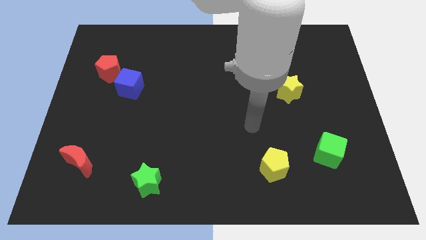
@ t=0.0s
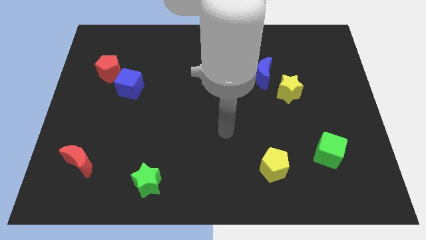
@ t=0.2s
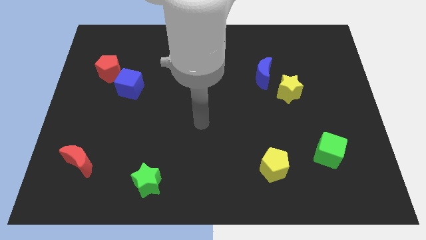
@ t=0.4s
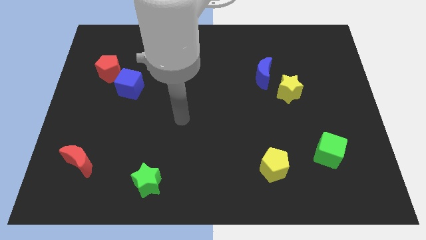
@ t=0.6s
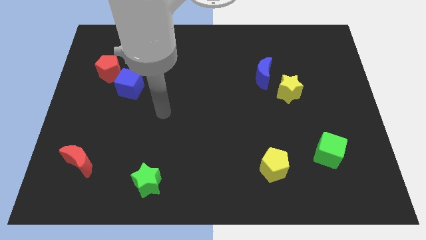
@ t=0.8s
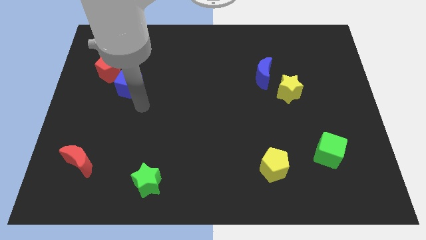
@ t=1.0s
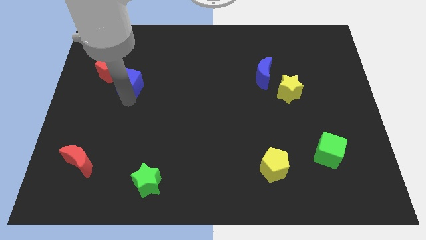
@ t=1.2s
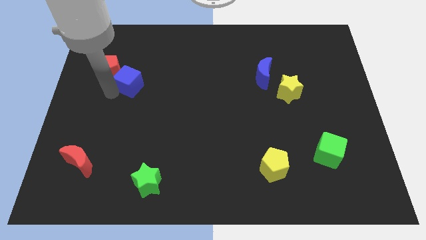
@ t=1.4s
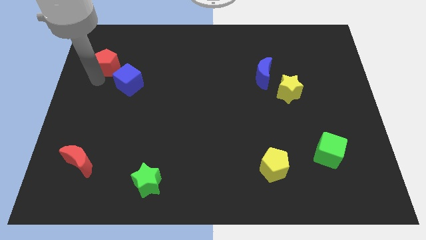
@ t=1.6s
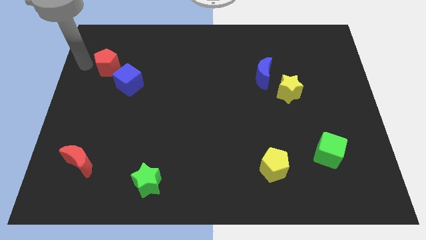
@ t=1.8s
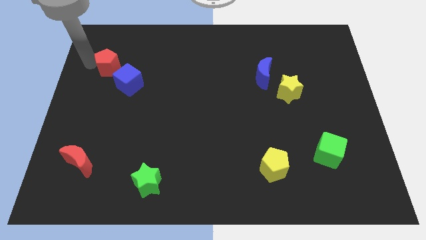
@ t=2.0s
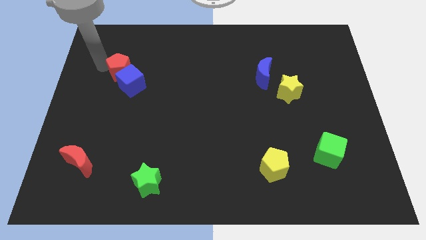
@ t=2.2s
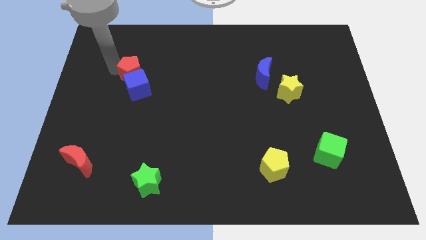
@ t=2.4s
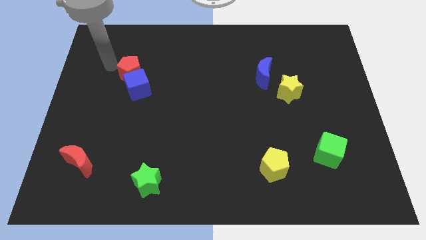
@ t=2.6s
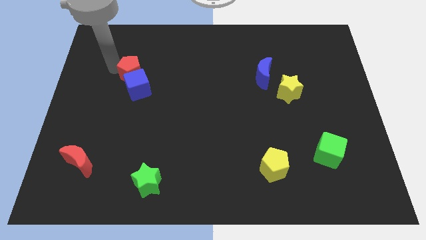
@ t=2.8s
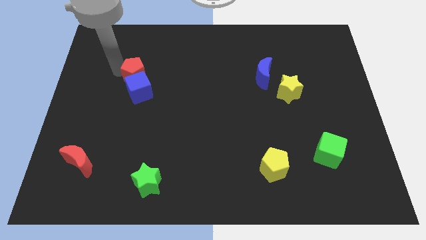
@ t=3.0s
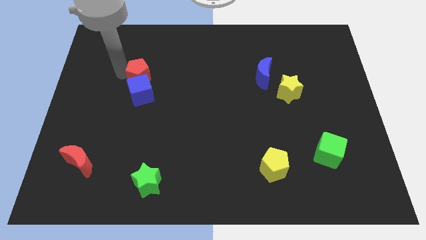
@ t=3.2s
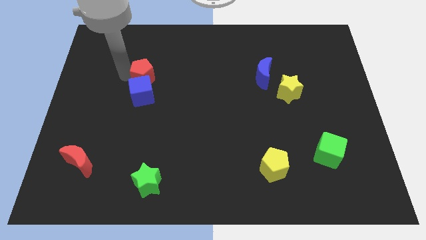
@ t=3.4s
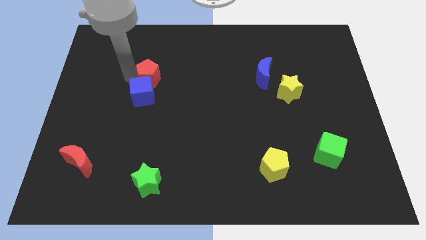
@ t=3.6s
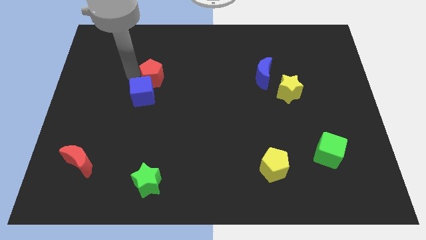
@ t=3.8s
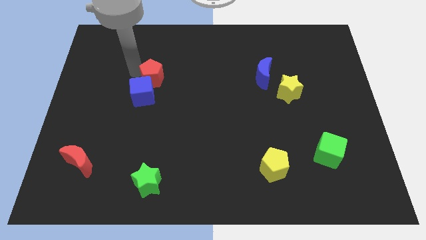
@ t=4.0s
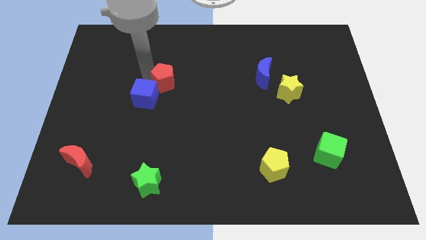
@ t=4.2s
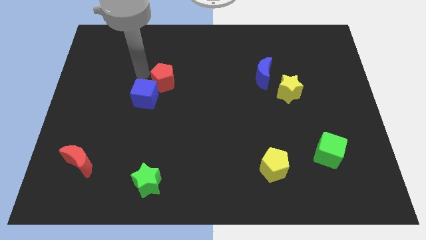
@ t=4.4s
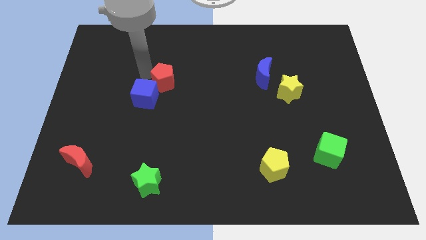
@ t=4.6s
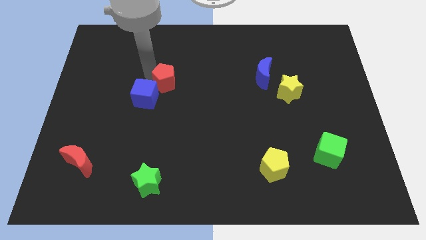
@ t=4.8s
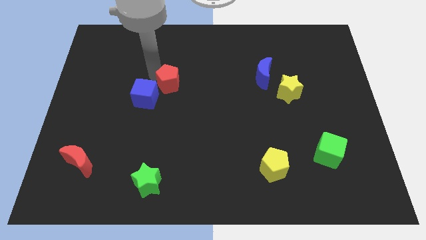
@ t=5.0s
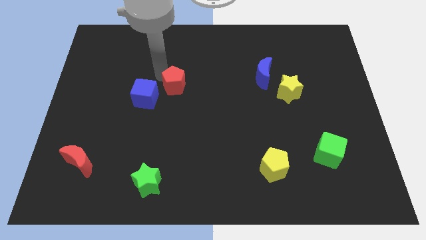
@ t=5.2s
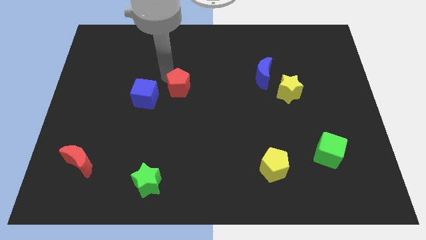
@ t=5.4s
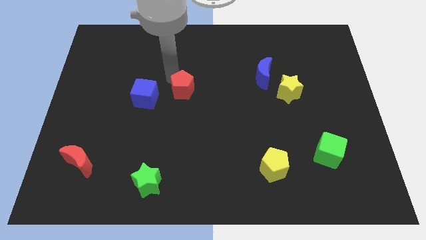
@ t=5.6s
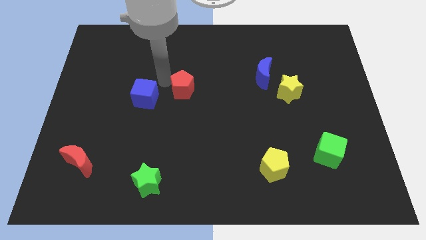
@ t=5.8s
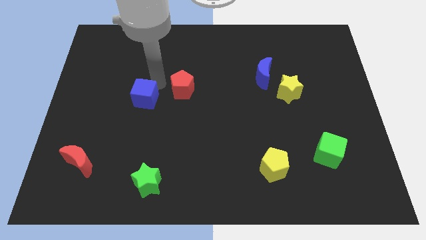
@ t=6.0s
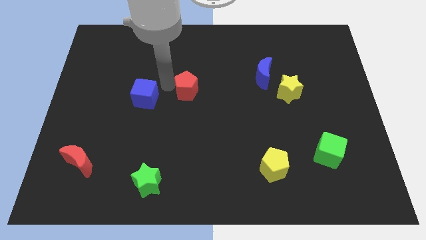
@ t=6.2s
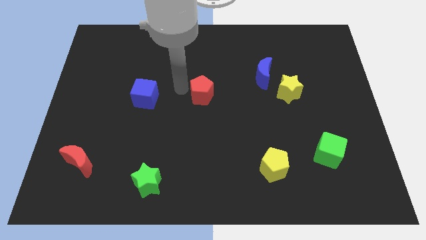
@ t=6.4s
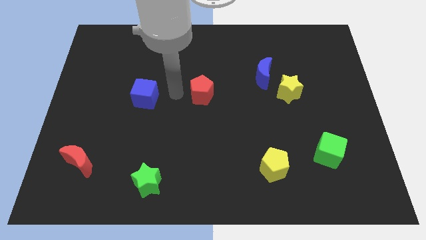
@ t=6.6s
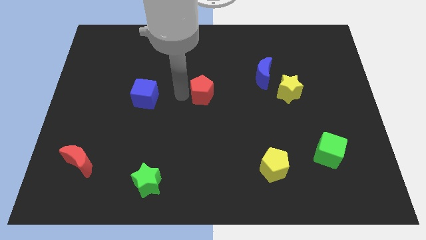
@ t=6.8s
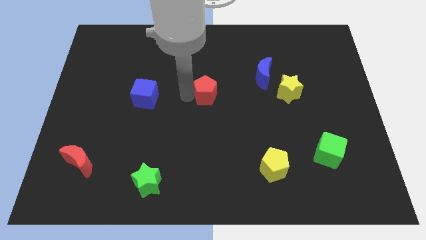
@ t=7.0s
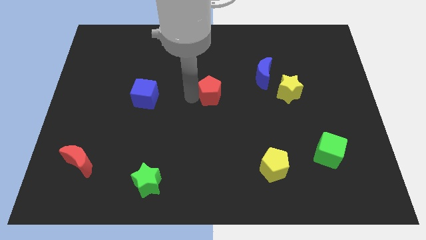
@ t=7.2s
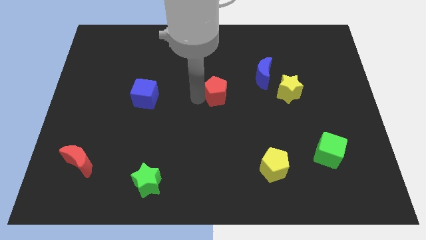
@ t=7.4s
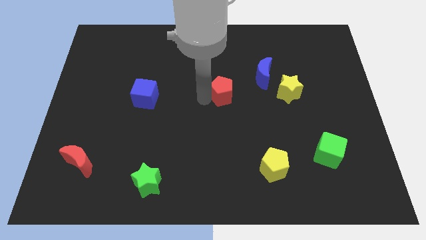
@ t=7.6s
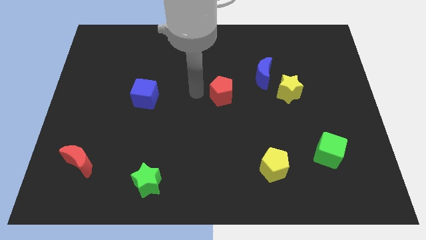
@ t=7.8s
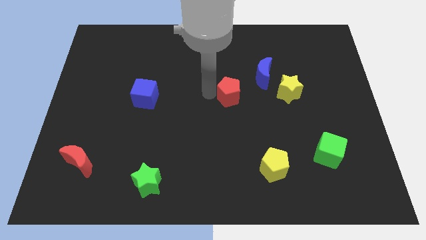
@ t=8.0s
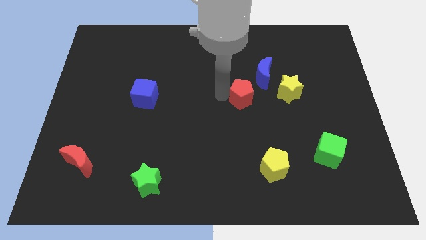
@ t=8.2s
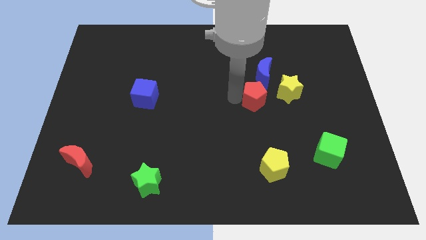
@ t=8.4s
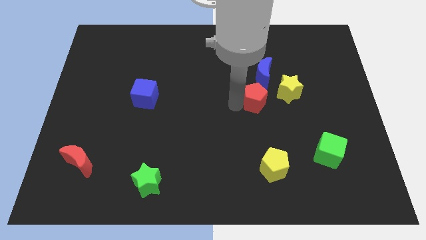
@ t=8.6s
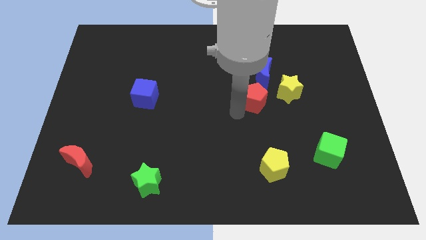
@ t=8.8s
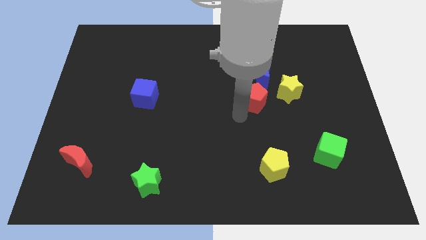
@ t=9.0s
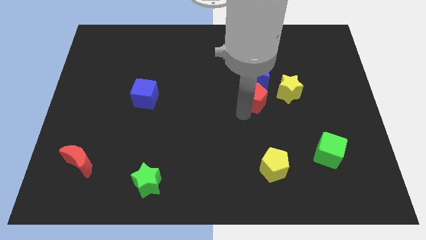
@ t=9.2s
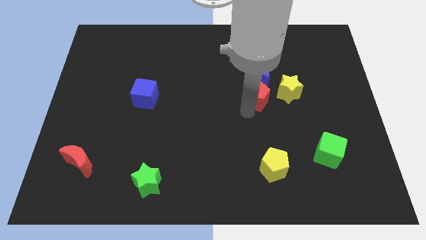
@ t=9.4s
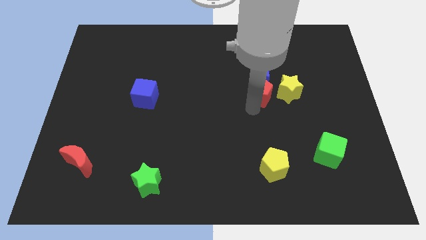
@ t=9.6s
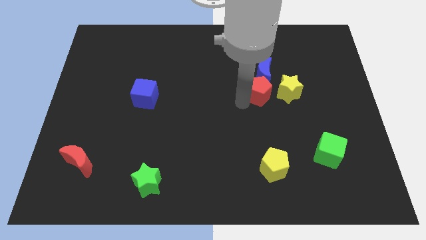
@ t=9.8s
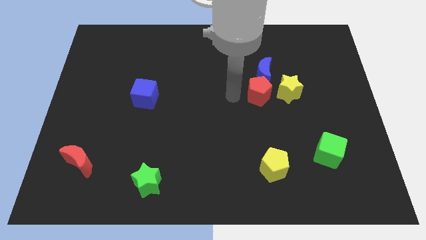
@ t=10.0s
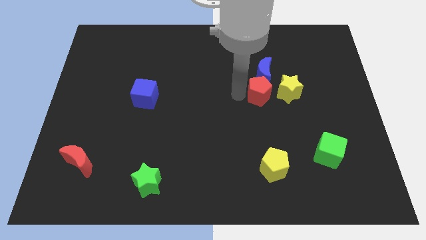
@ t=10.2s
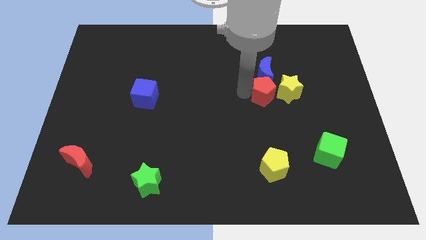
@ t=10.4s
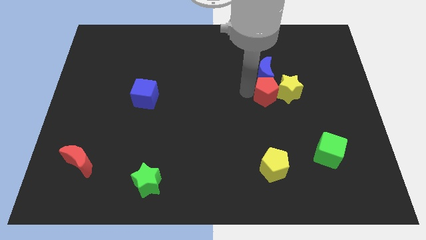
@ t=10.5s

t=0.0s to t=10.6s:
slide the red pentagon to the yellow star

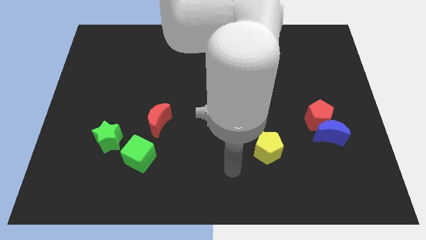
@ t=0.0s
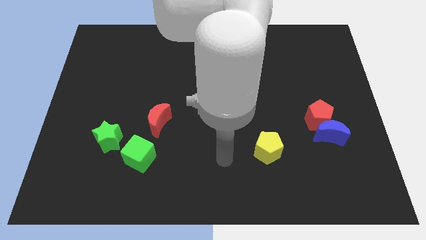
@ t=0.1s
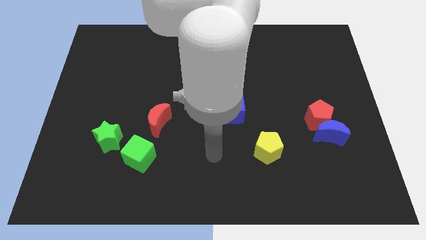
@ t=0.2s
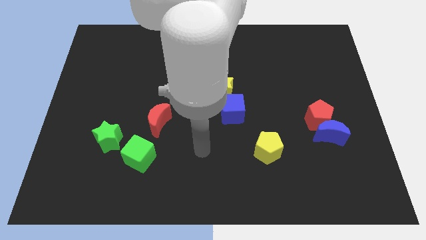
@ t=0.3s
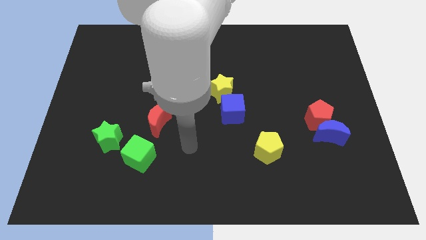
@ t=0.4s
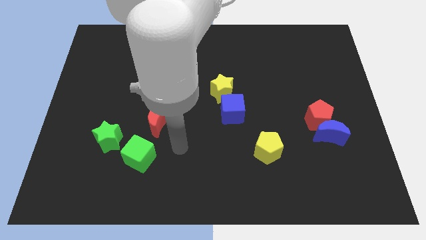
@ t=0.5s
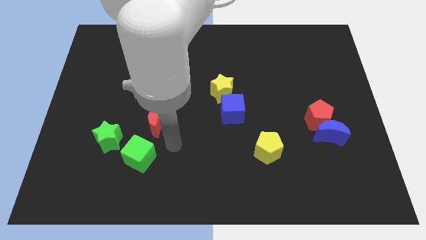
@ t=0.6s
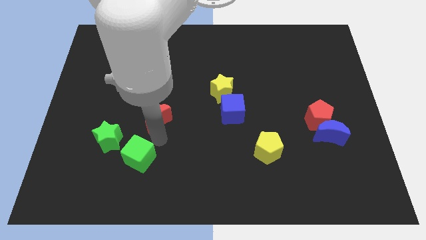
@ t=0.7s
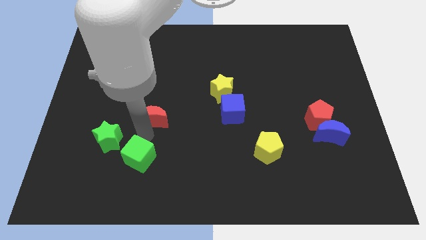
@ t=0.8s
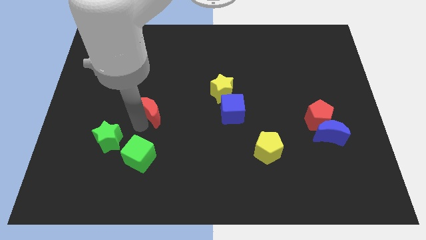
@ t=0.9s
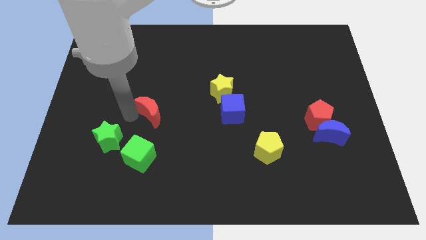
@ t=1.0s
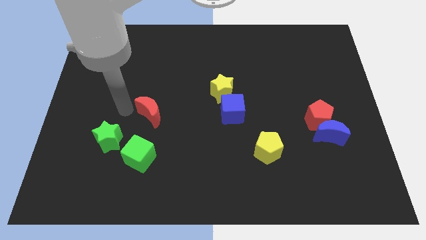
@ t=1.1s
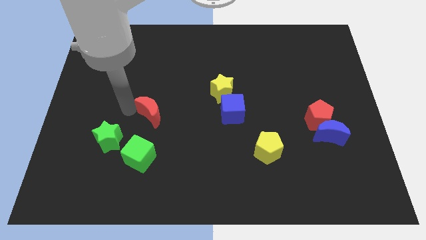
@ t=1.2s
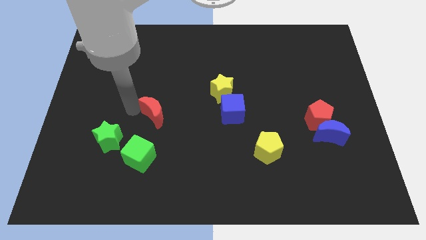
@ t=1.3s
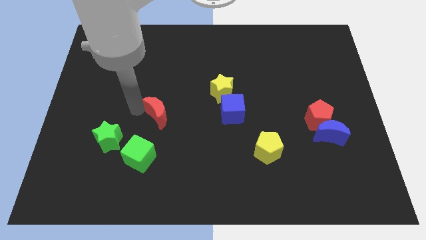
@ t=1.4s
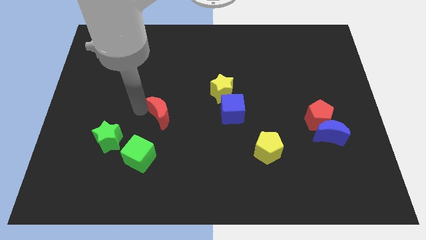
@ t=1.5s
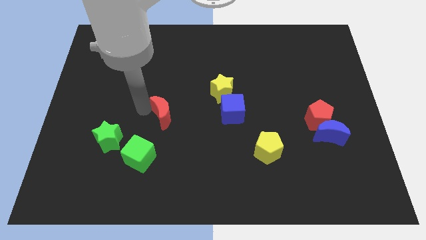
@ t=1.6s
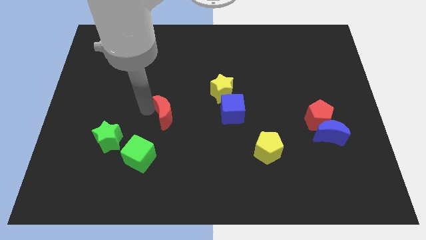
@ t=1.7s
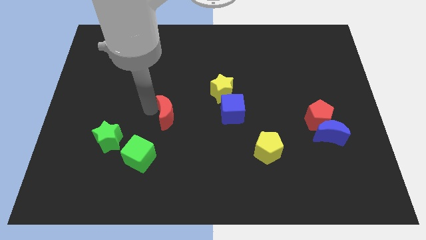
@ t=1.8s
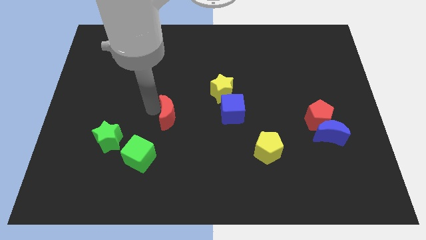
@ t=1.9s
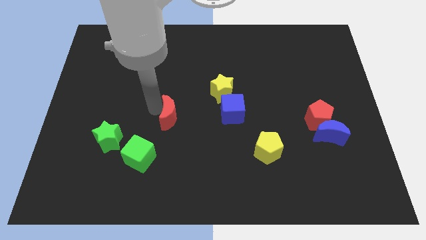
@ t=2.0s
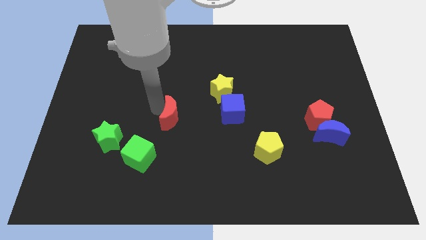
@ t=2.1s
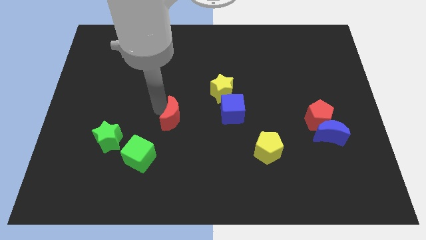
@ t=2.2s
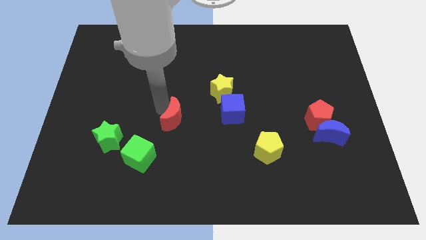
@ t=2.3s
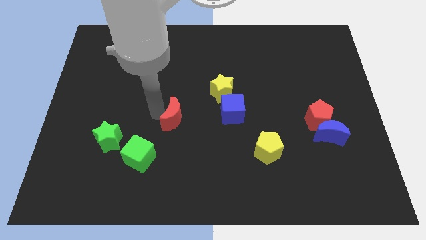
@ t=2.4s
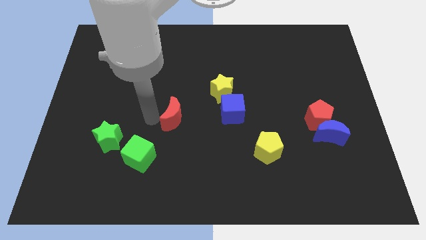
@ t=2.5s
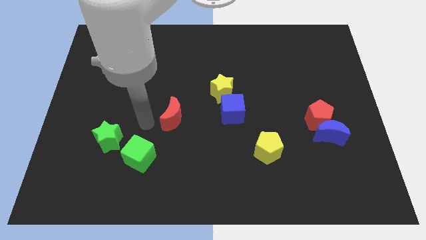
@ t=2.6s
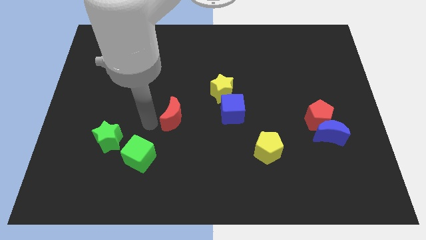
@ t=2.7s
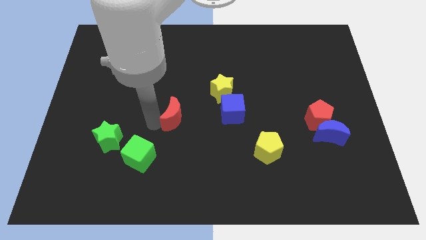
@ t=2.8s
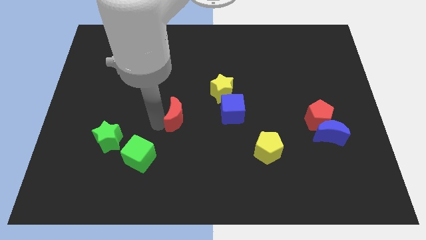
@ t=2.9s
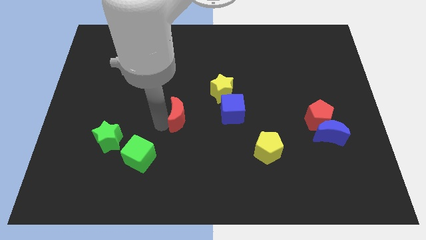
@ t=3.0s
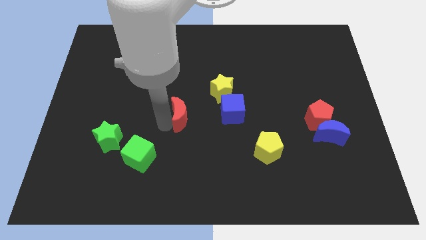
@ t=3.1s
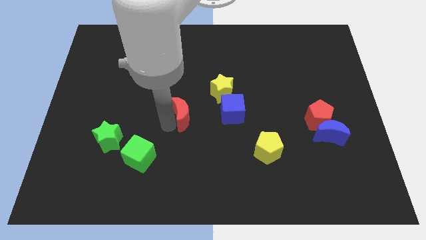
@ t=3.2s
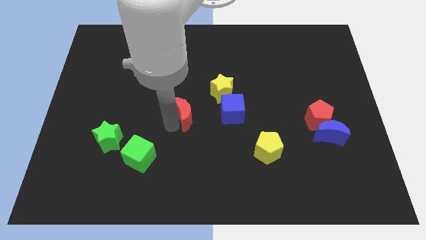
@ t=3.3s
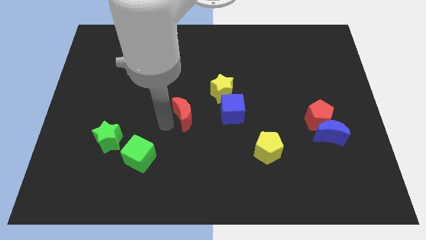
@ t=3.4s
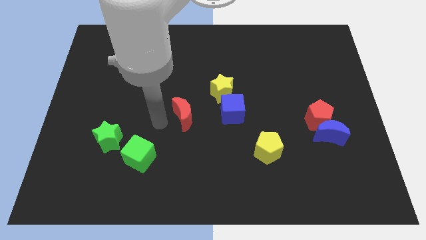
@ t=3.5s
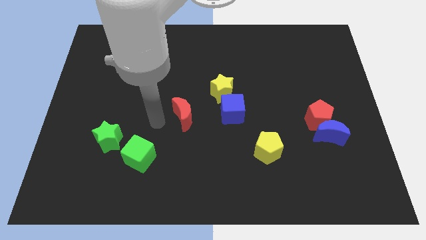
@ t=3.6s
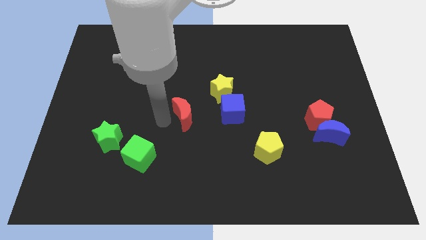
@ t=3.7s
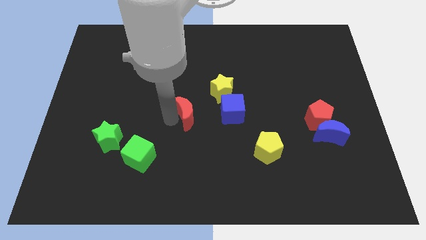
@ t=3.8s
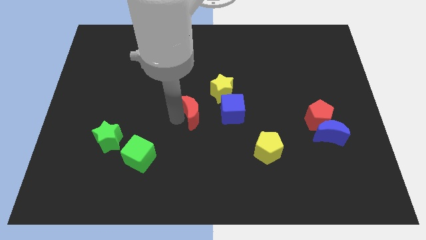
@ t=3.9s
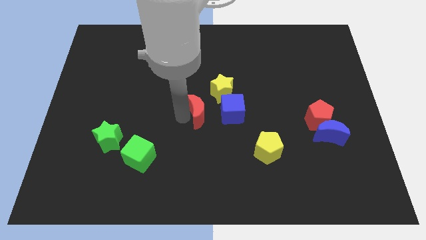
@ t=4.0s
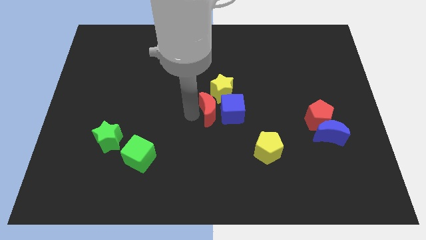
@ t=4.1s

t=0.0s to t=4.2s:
push the red moon next to the blue cube
